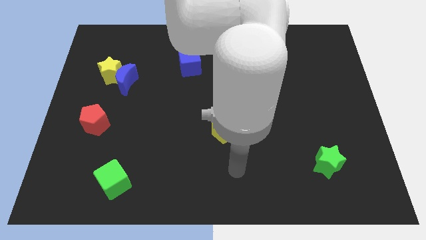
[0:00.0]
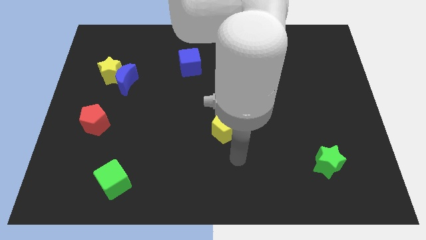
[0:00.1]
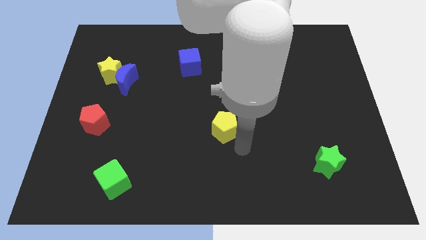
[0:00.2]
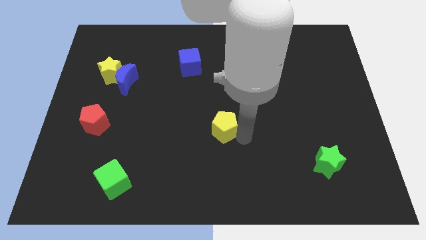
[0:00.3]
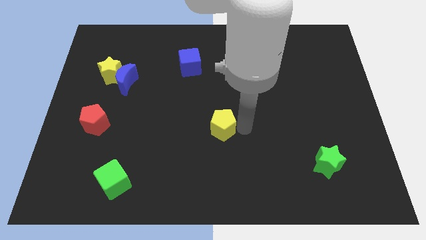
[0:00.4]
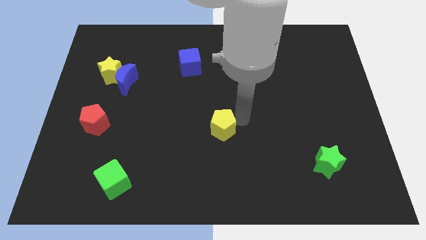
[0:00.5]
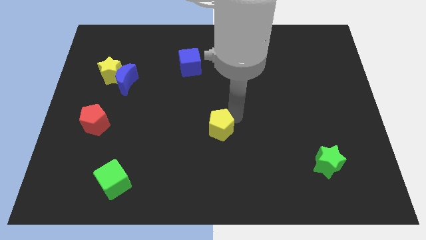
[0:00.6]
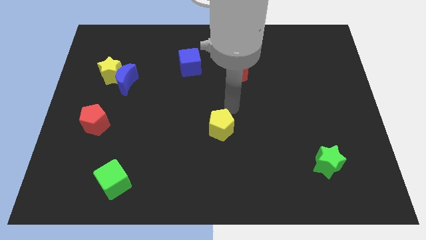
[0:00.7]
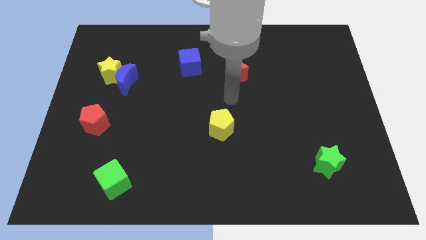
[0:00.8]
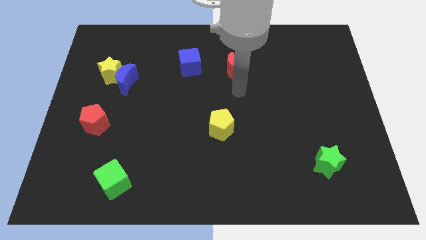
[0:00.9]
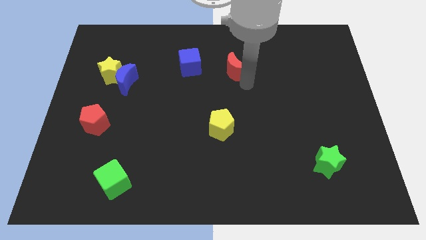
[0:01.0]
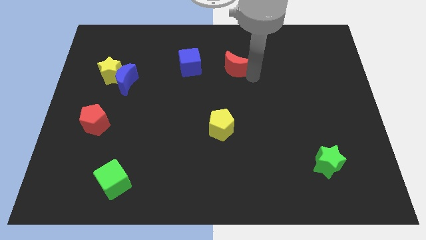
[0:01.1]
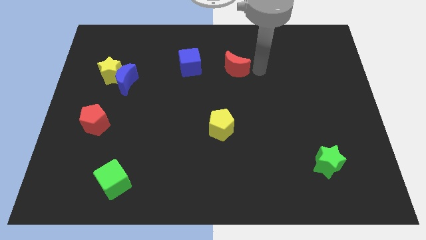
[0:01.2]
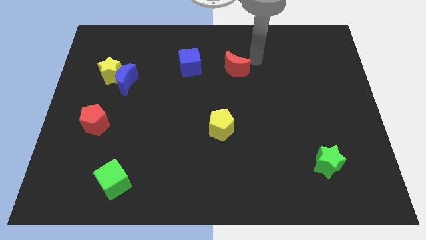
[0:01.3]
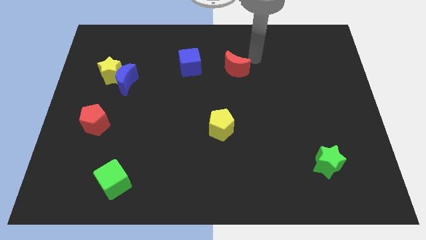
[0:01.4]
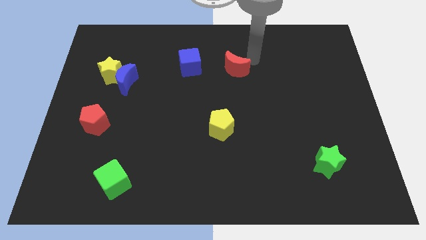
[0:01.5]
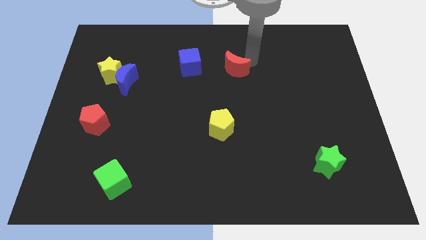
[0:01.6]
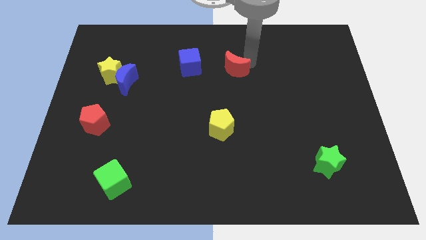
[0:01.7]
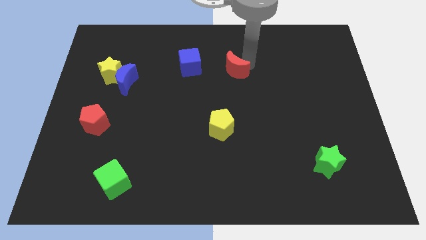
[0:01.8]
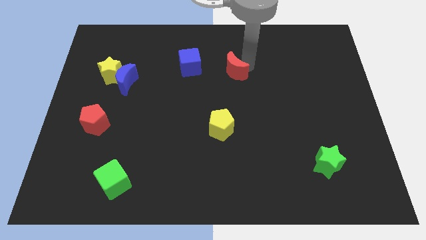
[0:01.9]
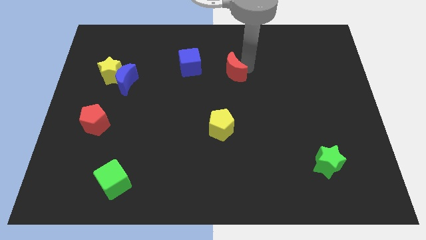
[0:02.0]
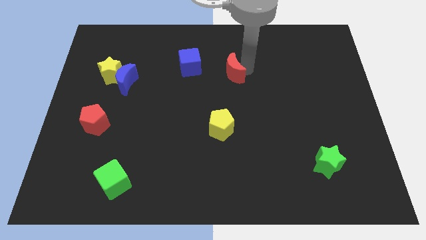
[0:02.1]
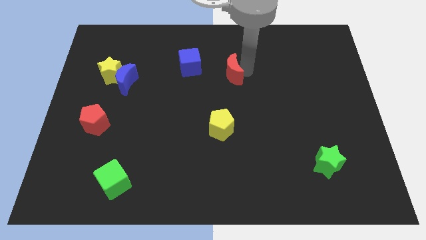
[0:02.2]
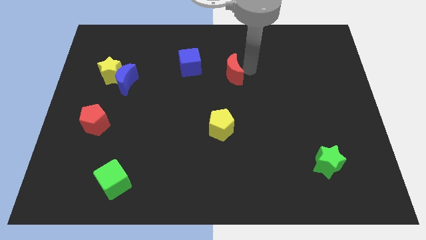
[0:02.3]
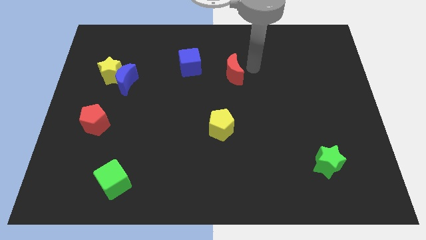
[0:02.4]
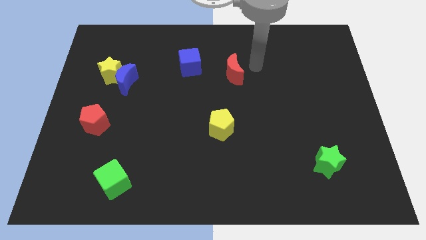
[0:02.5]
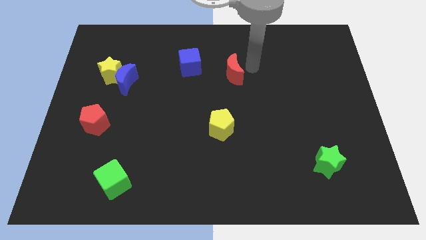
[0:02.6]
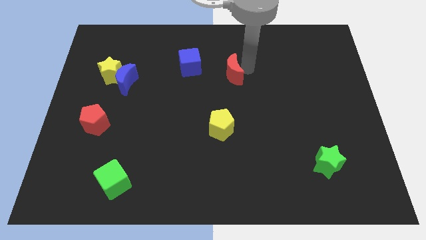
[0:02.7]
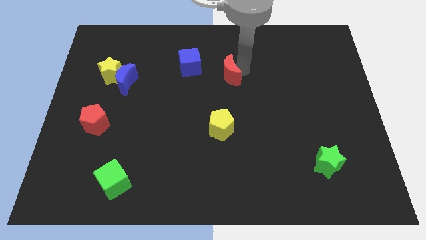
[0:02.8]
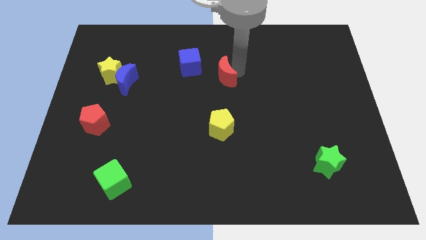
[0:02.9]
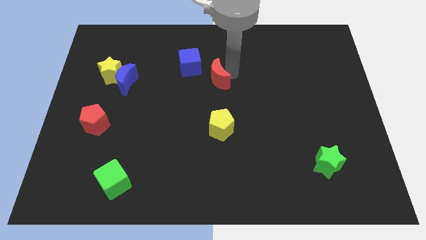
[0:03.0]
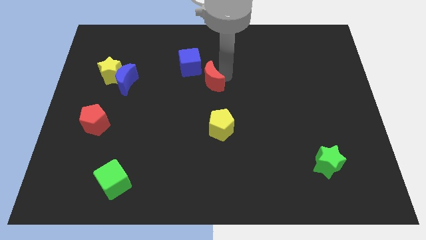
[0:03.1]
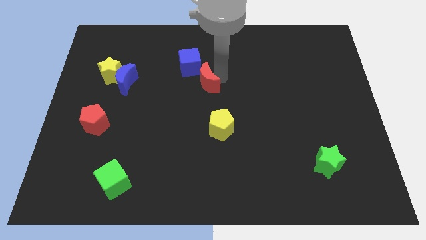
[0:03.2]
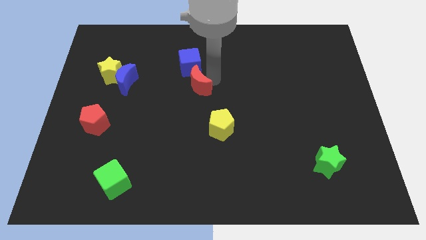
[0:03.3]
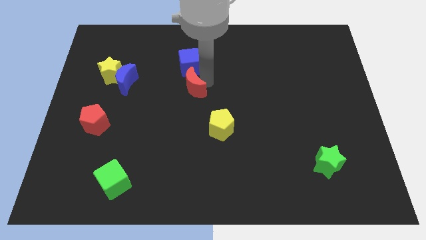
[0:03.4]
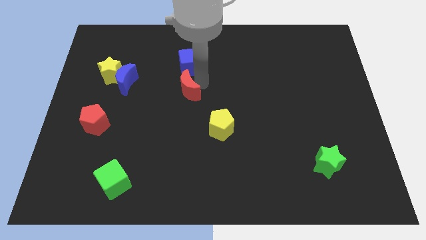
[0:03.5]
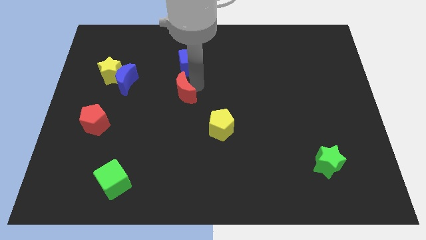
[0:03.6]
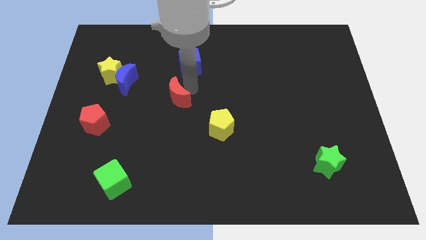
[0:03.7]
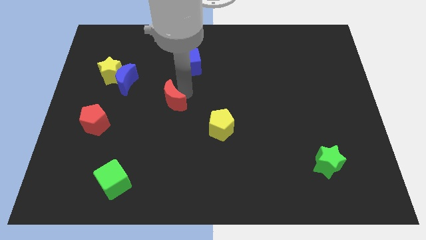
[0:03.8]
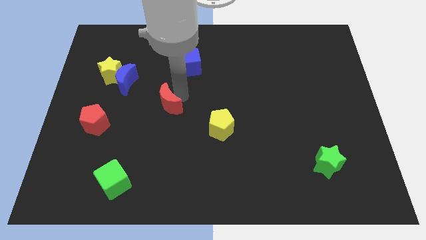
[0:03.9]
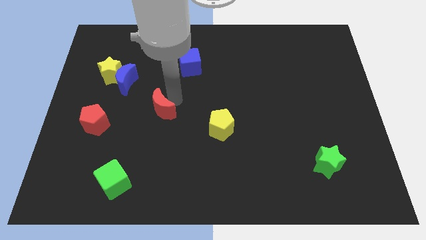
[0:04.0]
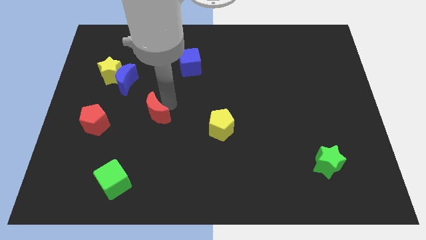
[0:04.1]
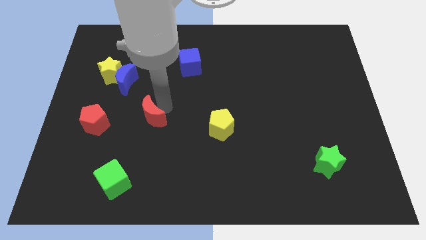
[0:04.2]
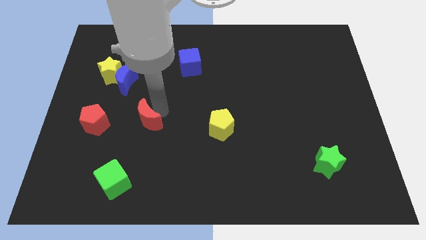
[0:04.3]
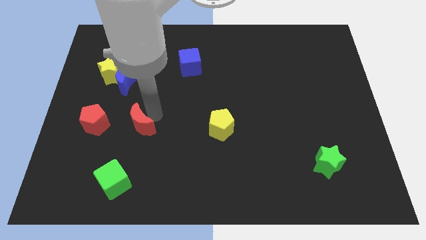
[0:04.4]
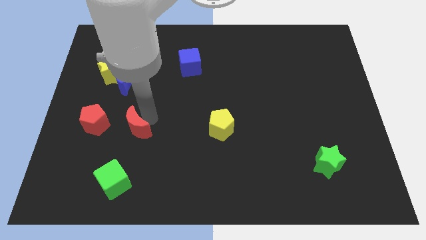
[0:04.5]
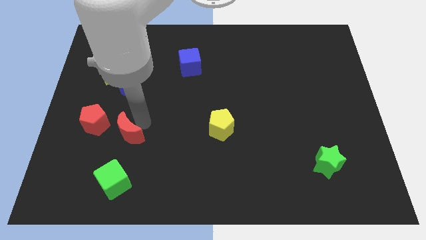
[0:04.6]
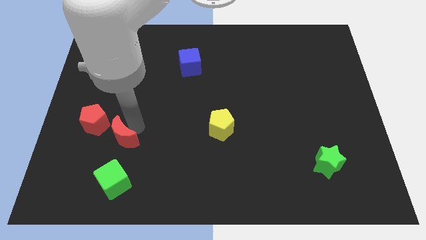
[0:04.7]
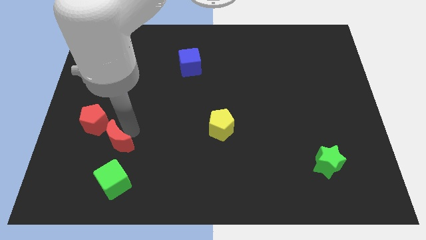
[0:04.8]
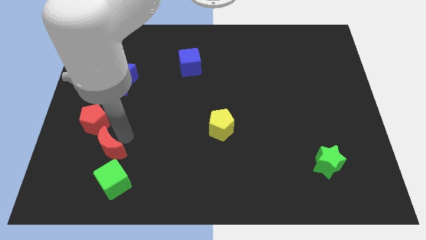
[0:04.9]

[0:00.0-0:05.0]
slide the red moon below the red pentagon

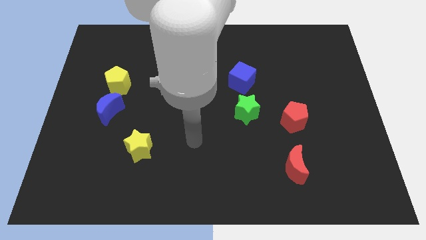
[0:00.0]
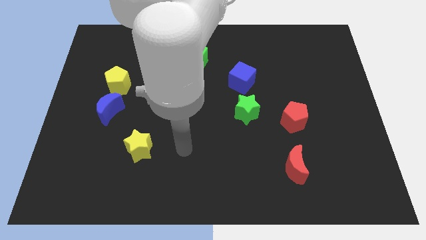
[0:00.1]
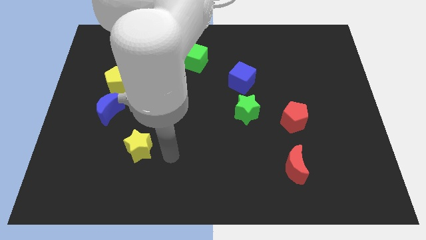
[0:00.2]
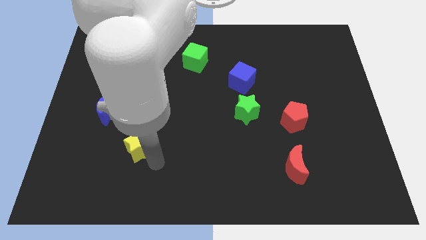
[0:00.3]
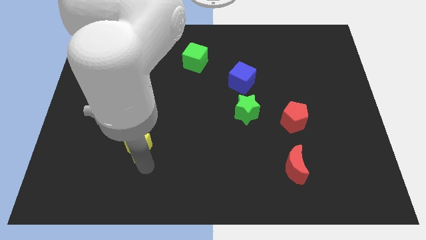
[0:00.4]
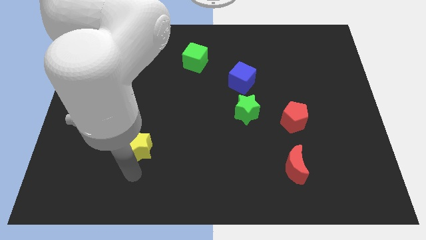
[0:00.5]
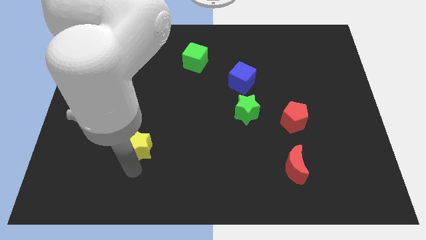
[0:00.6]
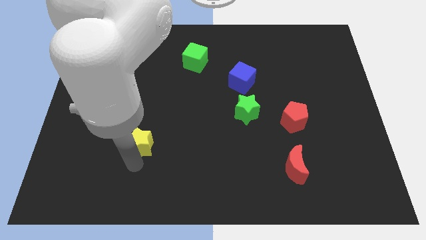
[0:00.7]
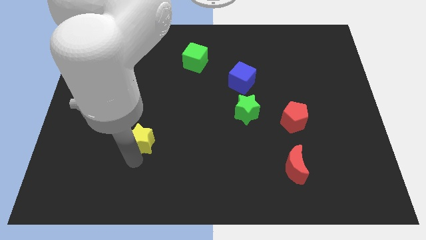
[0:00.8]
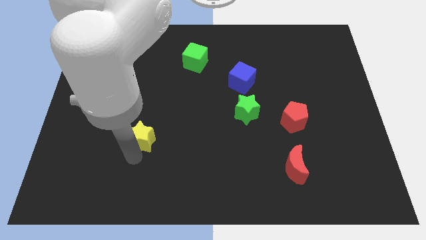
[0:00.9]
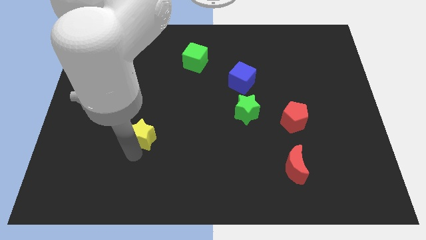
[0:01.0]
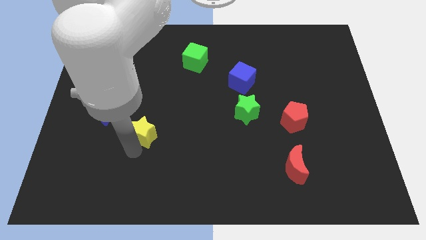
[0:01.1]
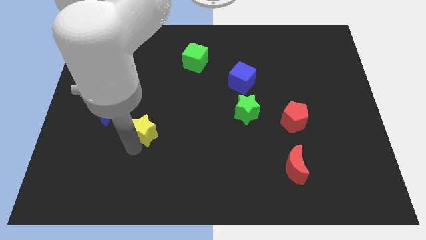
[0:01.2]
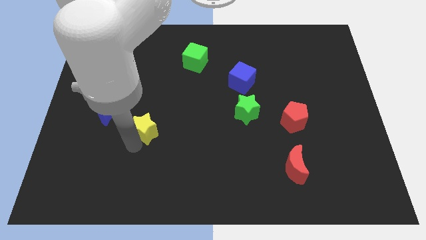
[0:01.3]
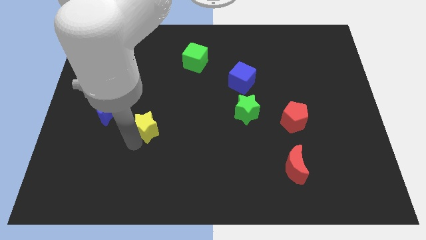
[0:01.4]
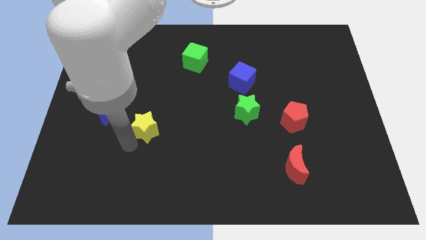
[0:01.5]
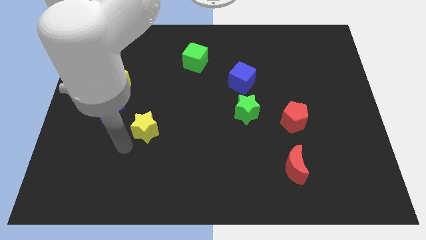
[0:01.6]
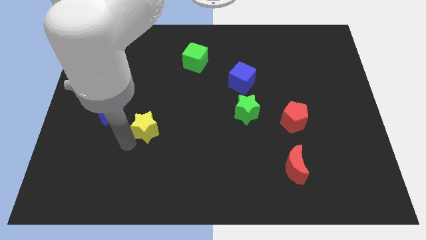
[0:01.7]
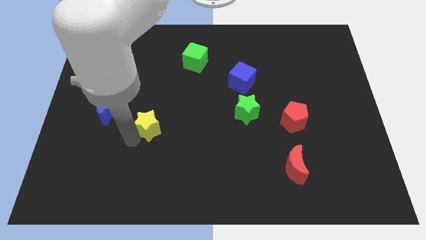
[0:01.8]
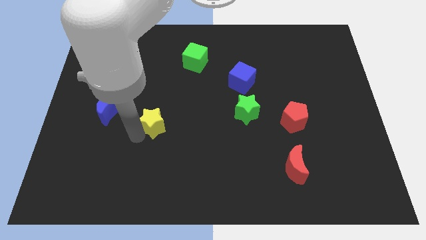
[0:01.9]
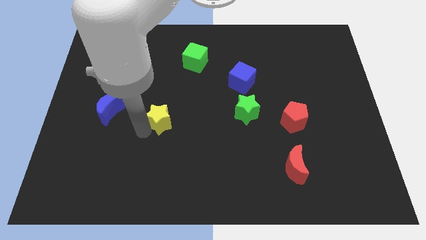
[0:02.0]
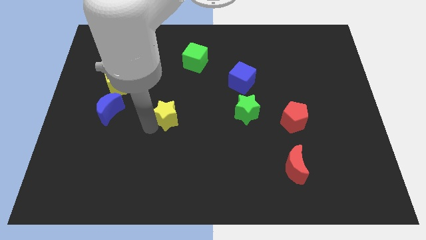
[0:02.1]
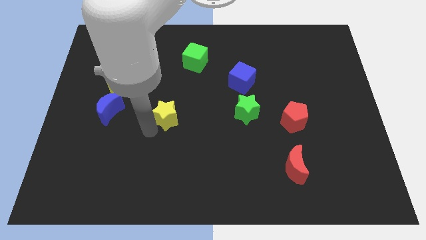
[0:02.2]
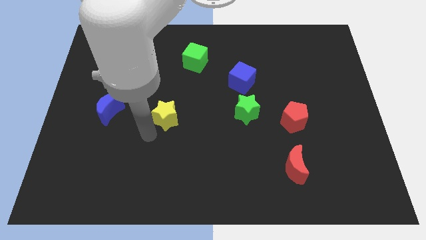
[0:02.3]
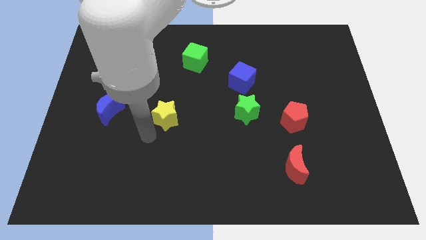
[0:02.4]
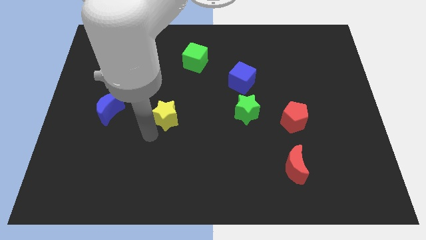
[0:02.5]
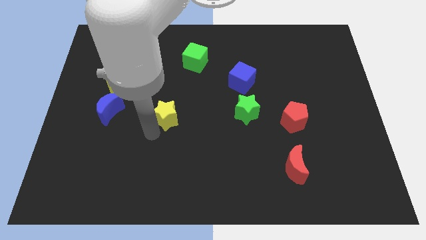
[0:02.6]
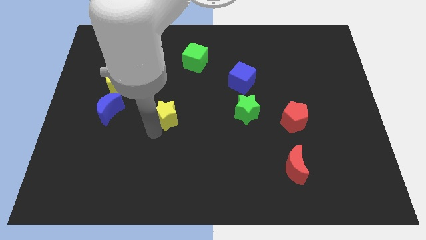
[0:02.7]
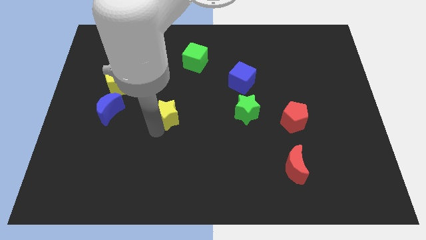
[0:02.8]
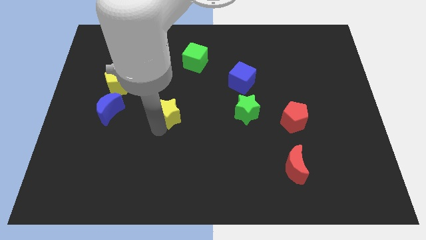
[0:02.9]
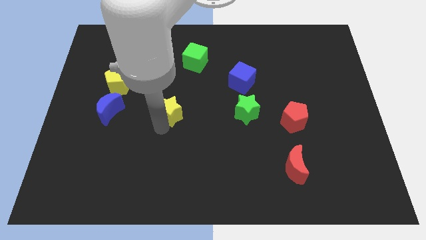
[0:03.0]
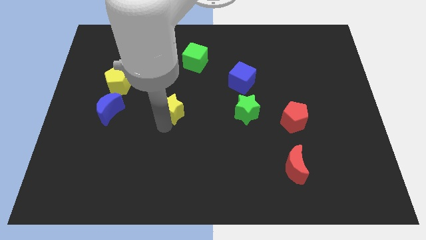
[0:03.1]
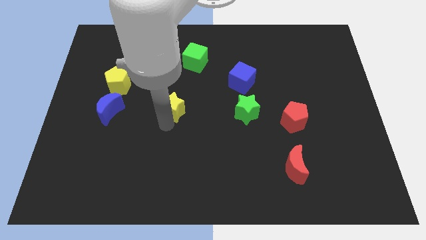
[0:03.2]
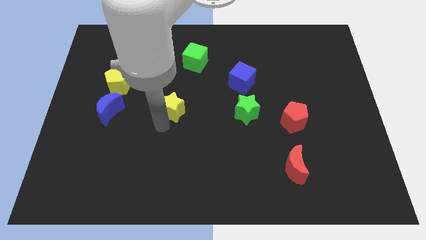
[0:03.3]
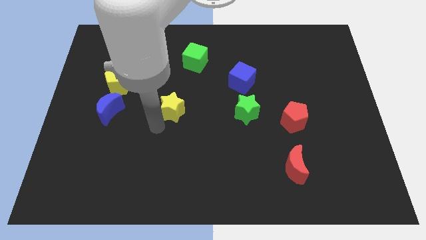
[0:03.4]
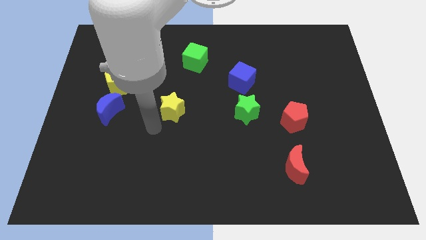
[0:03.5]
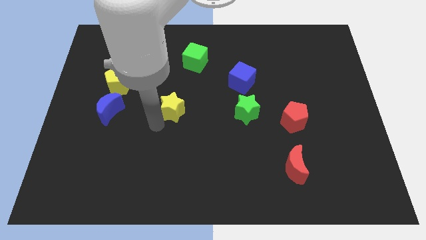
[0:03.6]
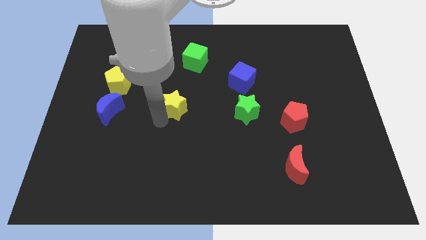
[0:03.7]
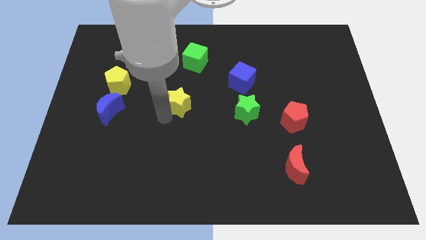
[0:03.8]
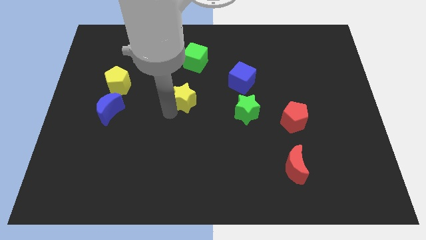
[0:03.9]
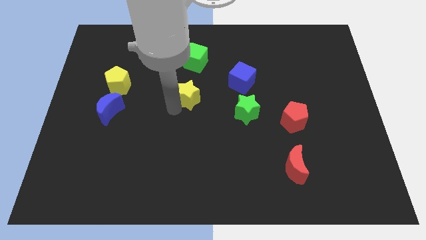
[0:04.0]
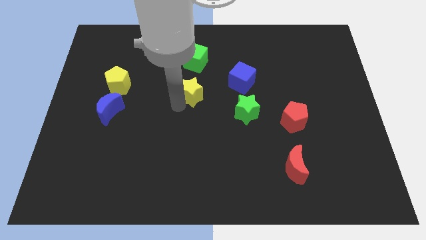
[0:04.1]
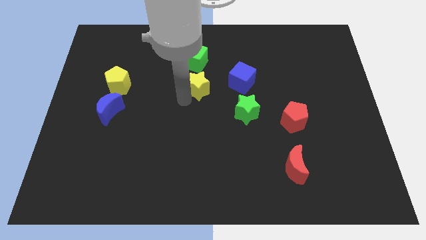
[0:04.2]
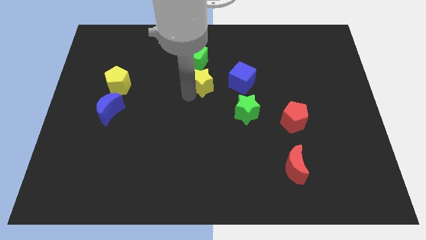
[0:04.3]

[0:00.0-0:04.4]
push the yellow star to the bottom right side of the green cube
